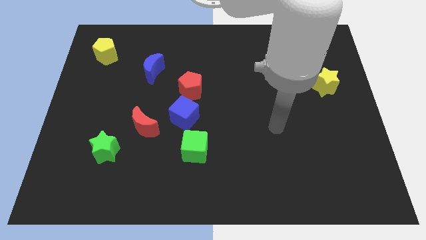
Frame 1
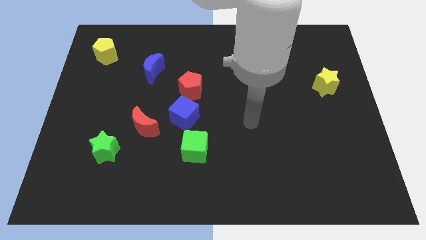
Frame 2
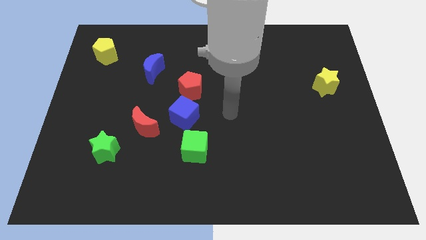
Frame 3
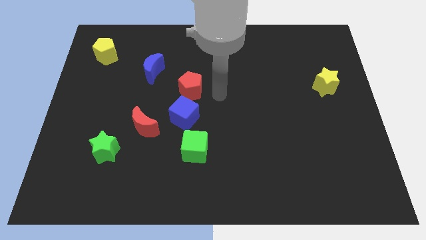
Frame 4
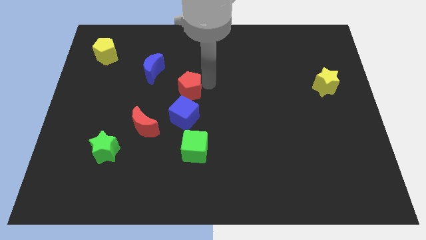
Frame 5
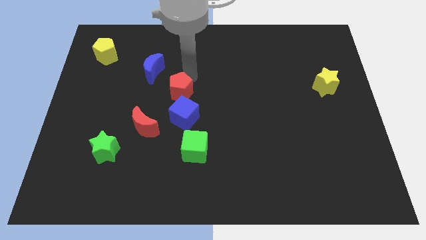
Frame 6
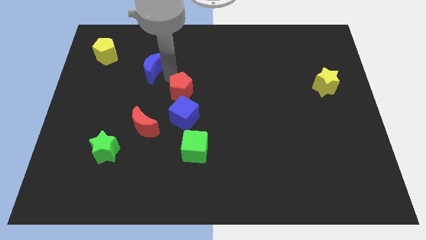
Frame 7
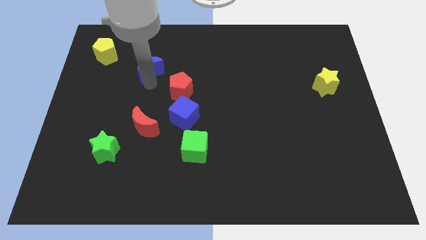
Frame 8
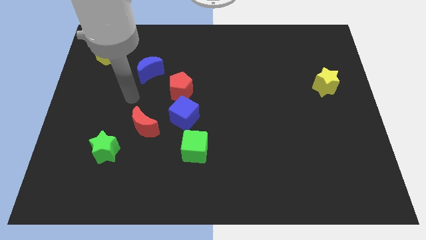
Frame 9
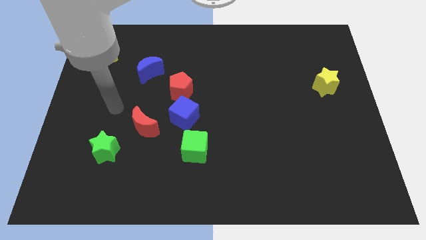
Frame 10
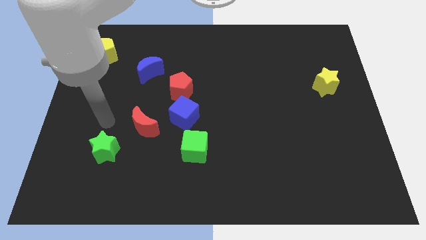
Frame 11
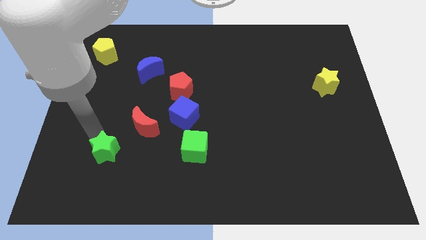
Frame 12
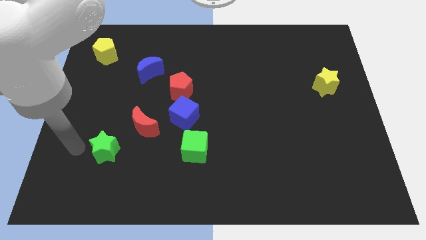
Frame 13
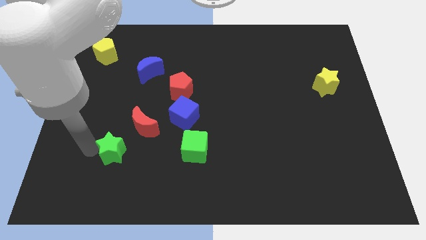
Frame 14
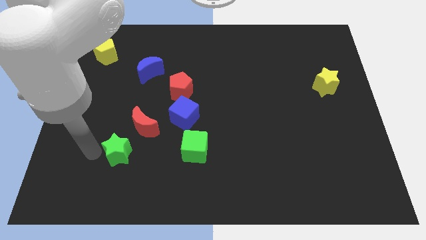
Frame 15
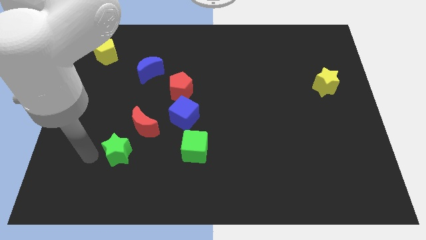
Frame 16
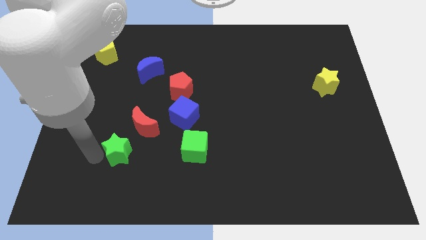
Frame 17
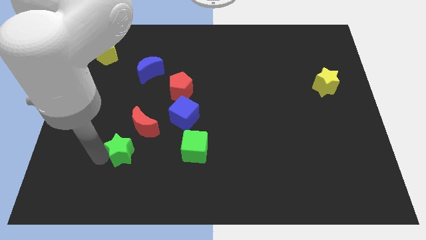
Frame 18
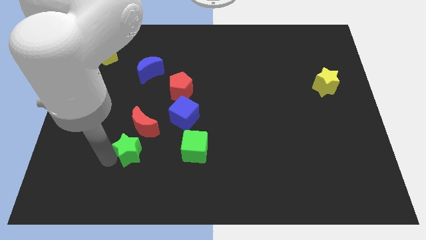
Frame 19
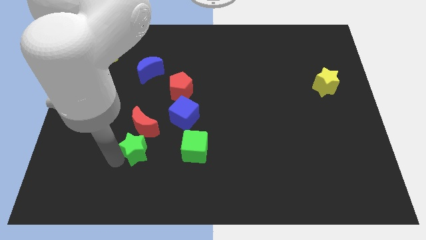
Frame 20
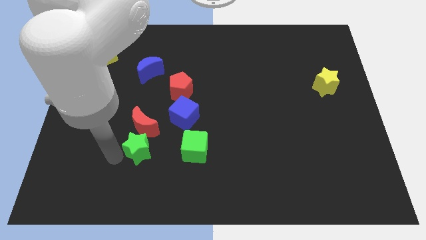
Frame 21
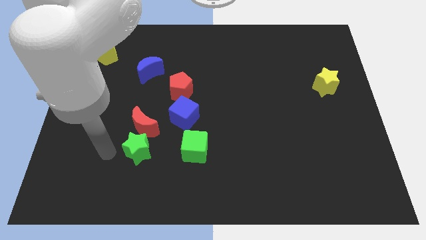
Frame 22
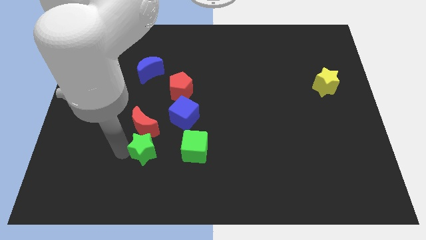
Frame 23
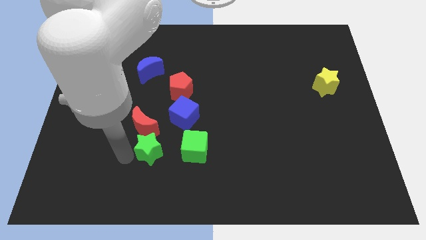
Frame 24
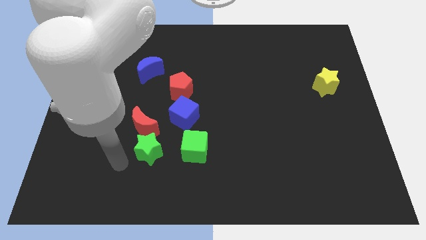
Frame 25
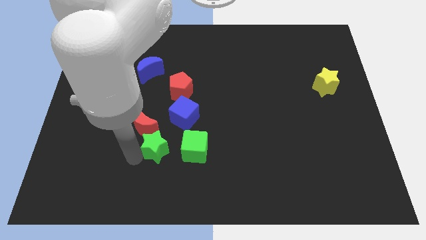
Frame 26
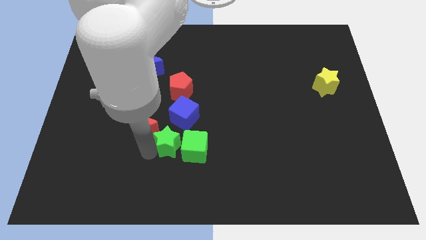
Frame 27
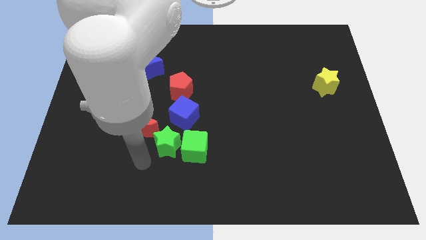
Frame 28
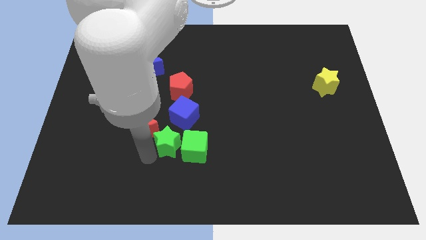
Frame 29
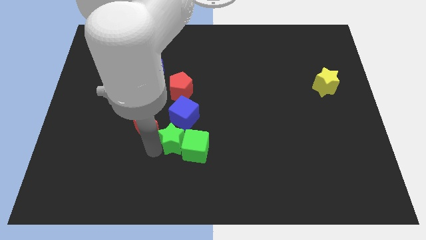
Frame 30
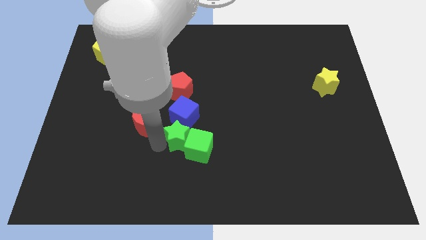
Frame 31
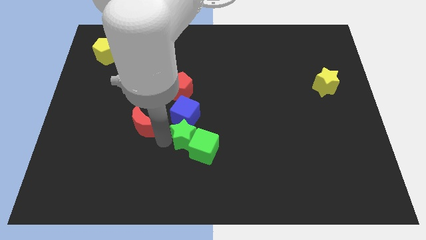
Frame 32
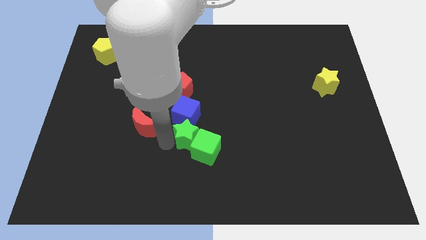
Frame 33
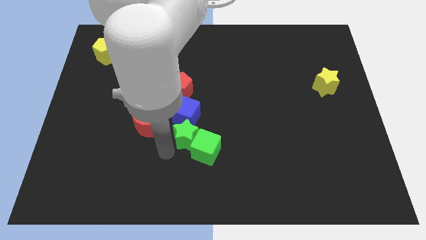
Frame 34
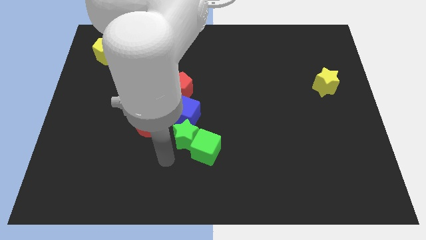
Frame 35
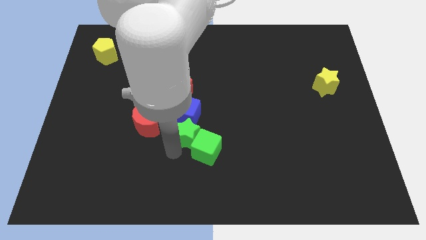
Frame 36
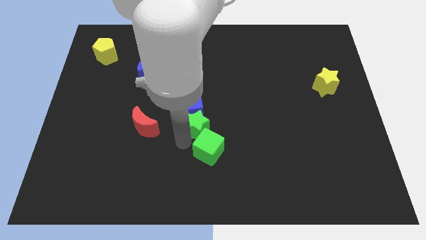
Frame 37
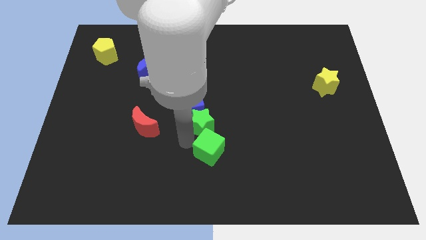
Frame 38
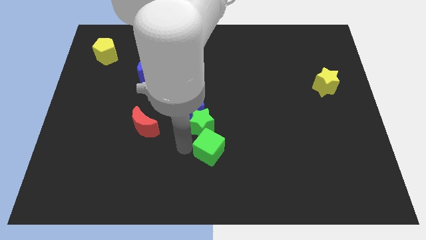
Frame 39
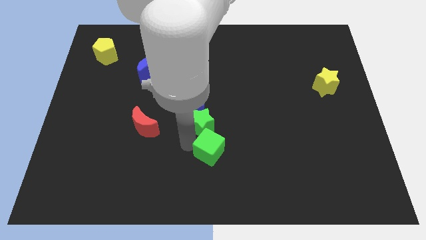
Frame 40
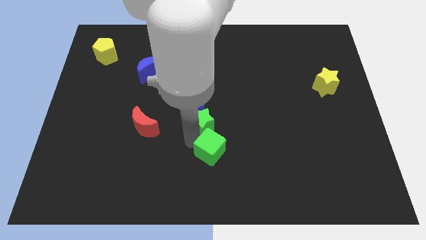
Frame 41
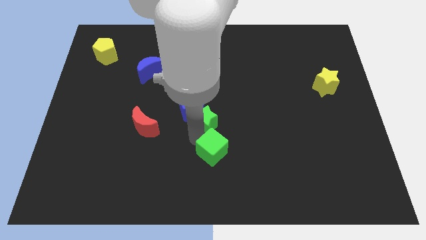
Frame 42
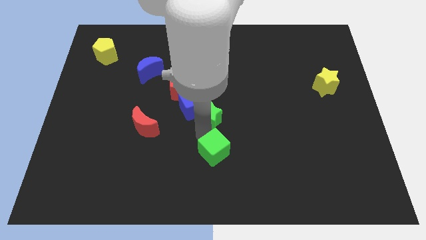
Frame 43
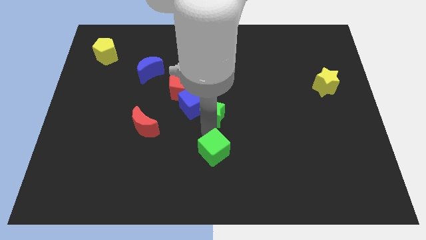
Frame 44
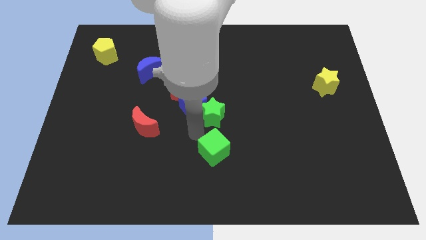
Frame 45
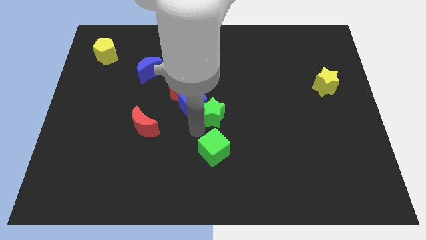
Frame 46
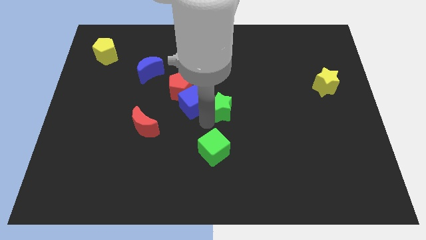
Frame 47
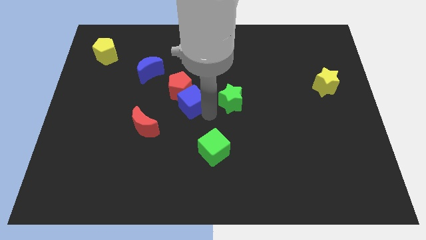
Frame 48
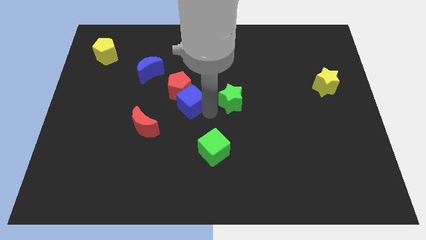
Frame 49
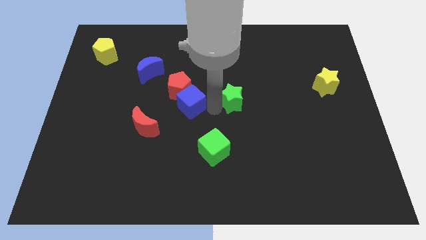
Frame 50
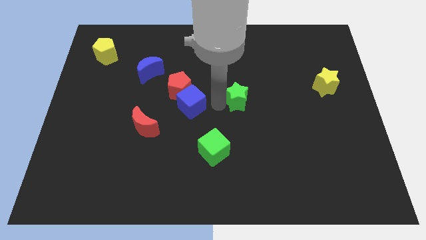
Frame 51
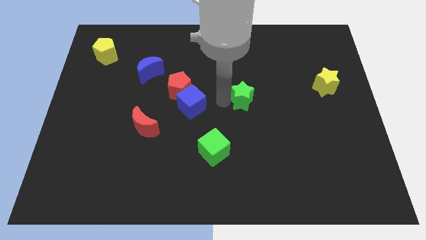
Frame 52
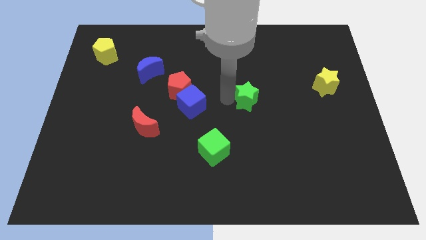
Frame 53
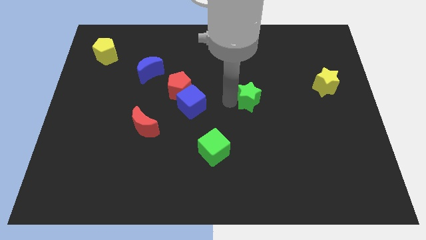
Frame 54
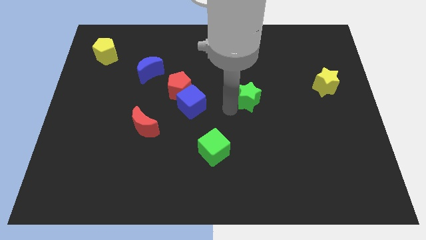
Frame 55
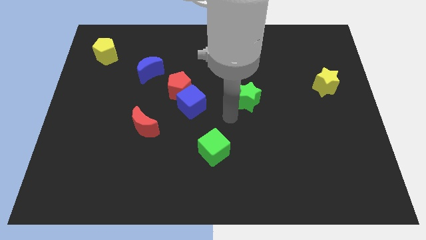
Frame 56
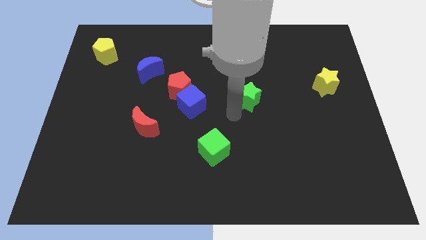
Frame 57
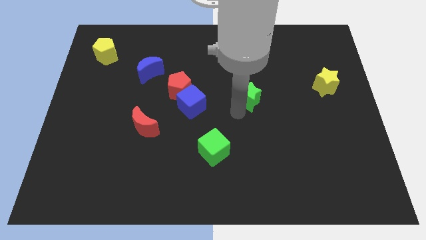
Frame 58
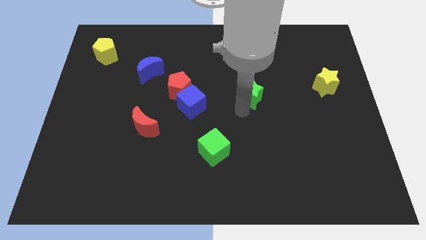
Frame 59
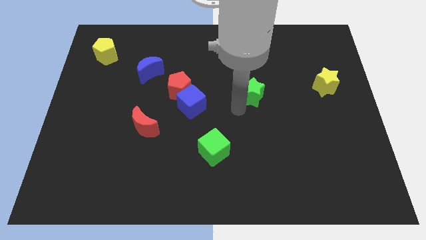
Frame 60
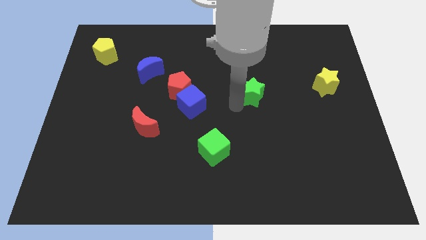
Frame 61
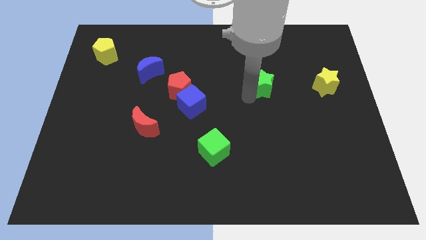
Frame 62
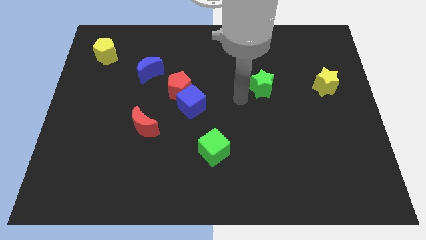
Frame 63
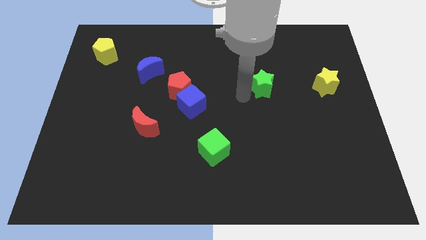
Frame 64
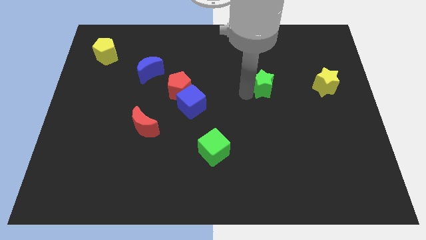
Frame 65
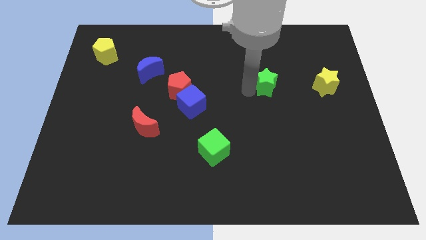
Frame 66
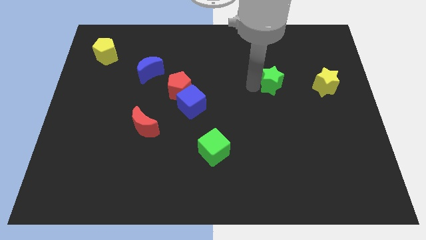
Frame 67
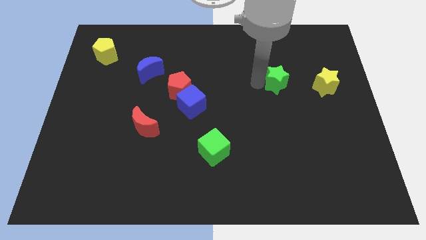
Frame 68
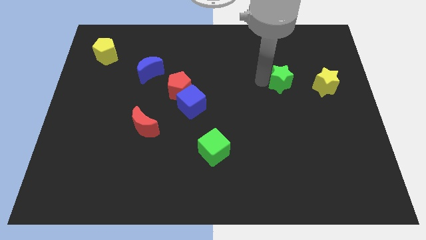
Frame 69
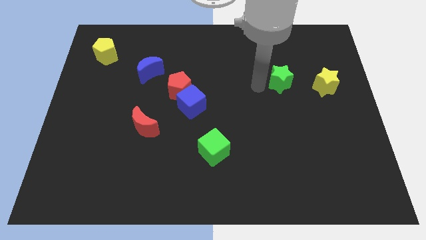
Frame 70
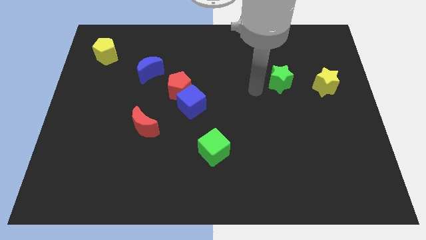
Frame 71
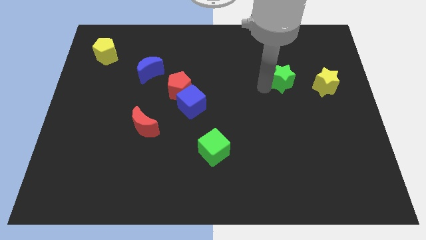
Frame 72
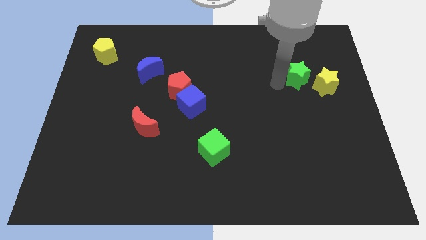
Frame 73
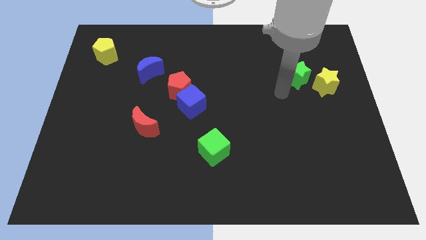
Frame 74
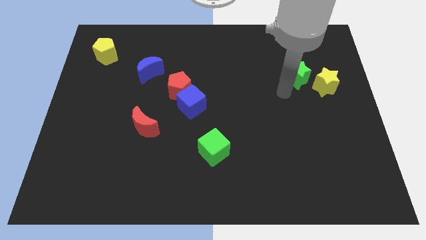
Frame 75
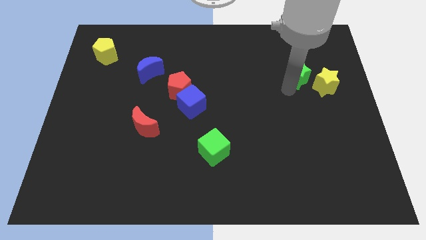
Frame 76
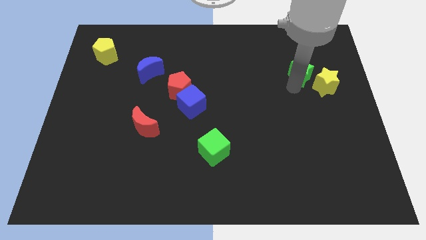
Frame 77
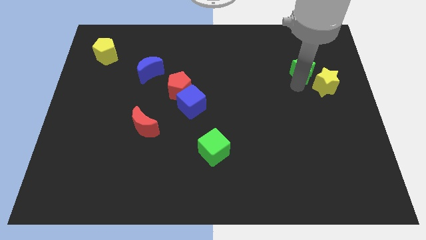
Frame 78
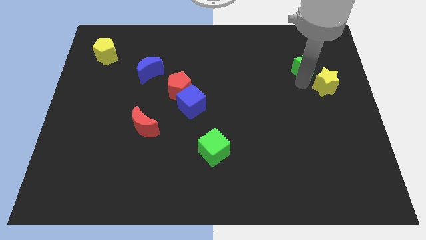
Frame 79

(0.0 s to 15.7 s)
move the green star to the top of the yellow star
